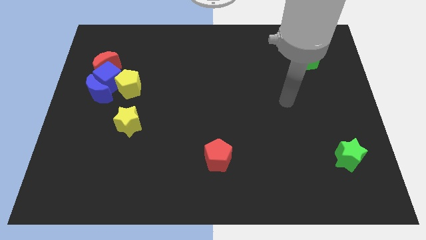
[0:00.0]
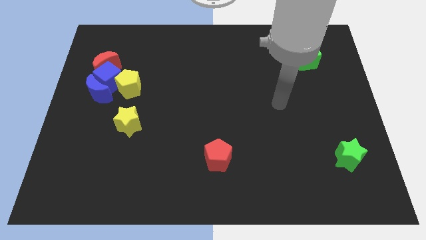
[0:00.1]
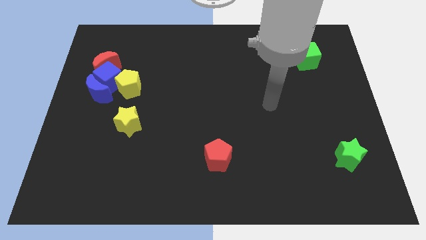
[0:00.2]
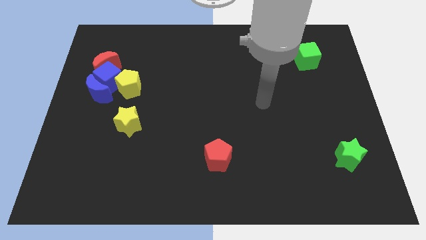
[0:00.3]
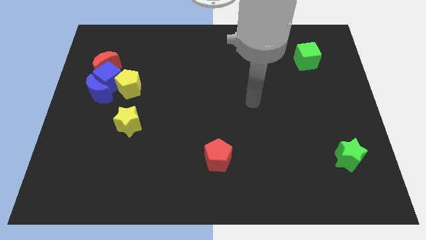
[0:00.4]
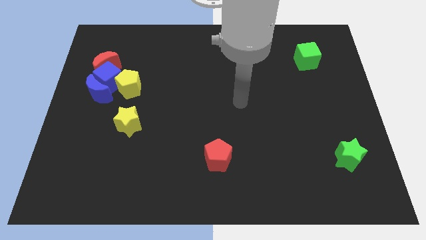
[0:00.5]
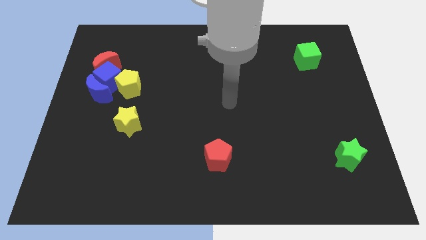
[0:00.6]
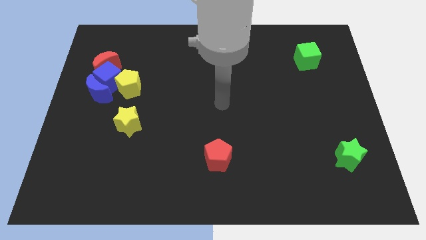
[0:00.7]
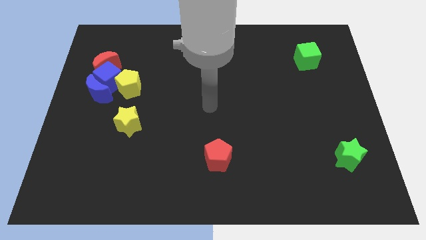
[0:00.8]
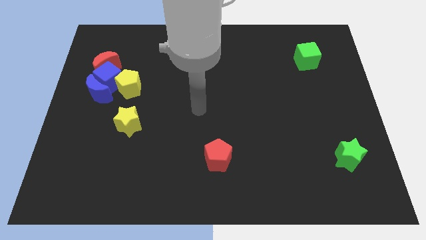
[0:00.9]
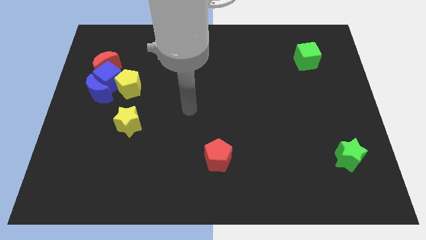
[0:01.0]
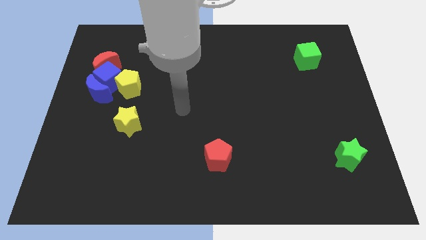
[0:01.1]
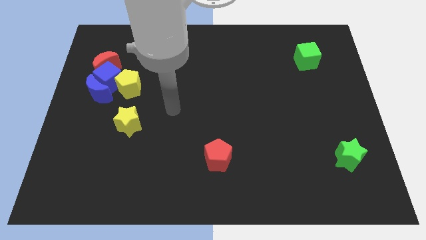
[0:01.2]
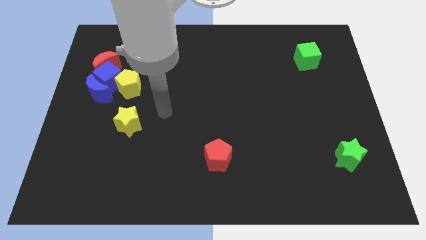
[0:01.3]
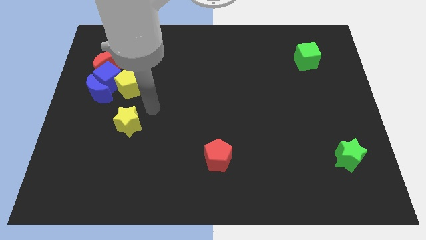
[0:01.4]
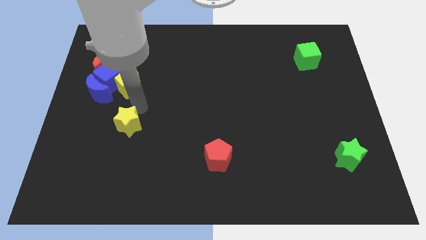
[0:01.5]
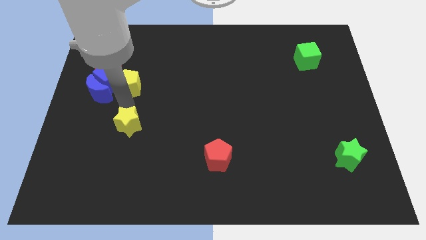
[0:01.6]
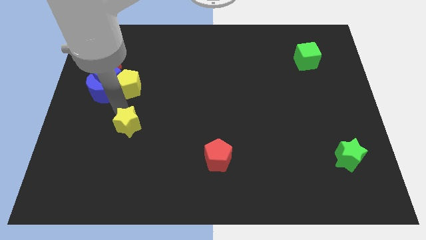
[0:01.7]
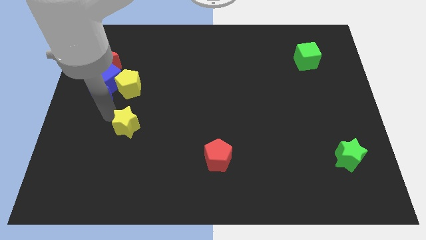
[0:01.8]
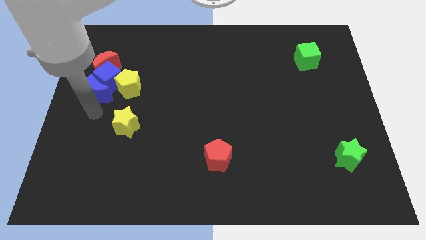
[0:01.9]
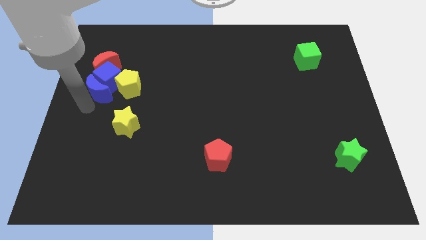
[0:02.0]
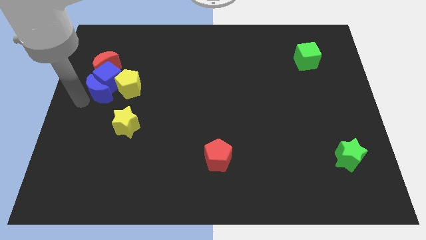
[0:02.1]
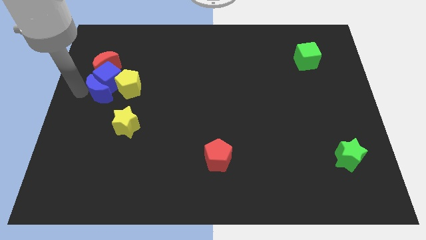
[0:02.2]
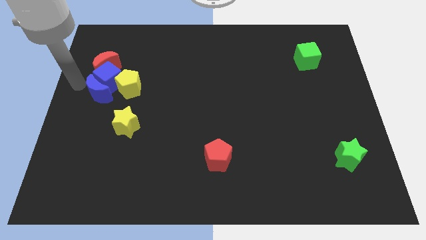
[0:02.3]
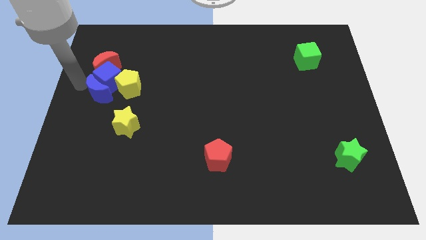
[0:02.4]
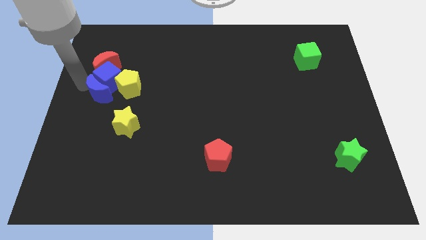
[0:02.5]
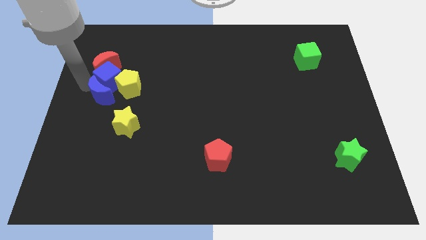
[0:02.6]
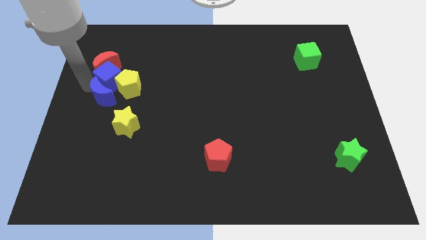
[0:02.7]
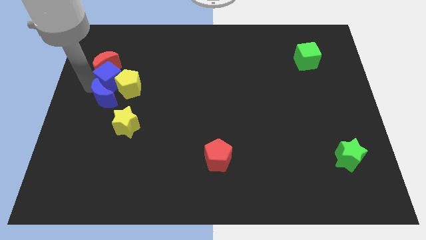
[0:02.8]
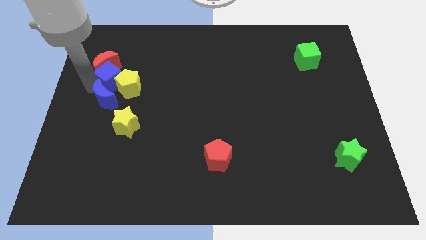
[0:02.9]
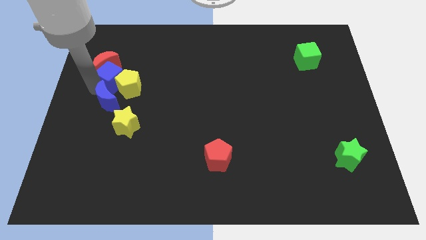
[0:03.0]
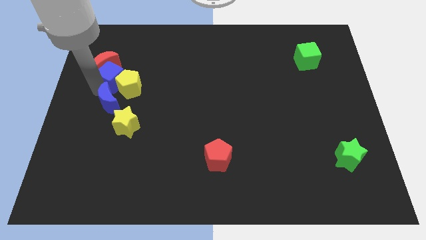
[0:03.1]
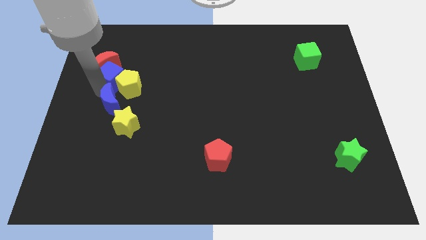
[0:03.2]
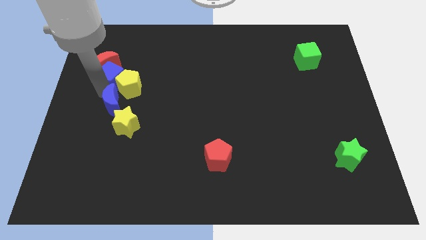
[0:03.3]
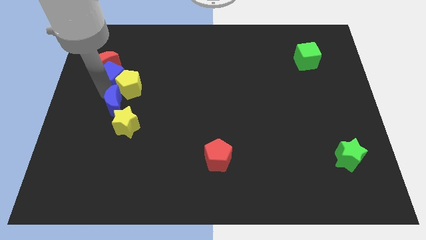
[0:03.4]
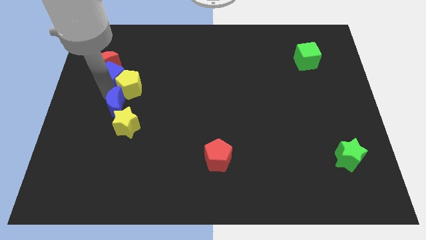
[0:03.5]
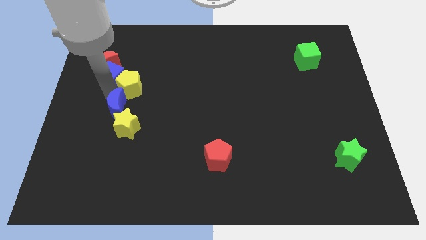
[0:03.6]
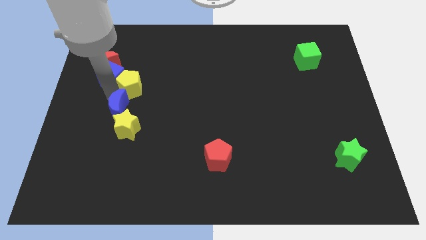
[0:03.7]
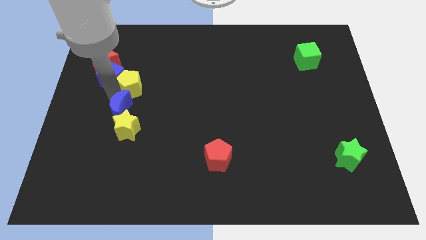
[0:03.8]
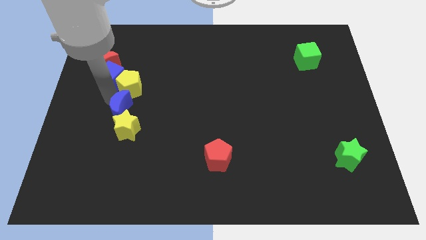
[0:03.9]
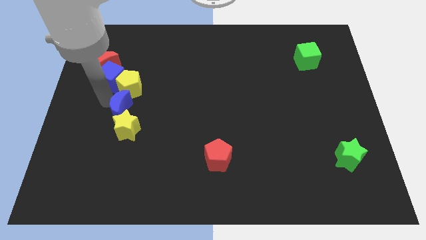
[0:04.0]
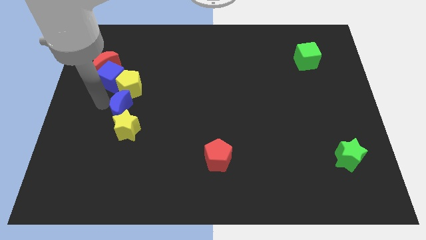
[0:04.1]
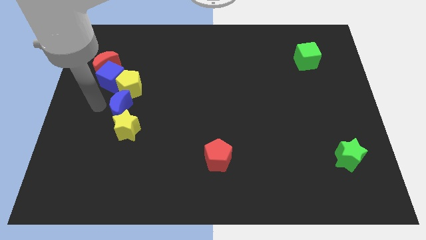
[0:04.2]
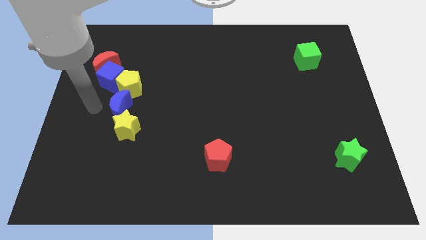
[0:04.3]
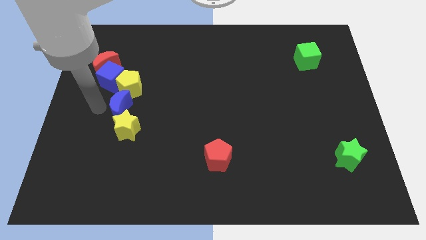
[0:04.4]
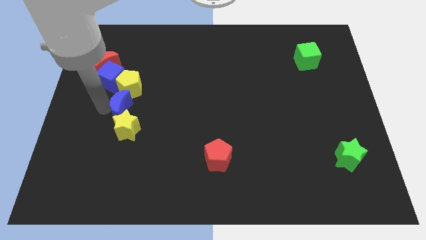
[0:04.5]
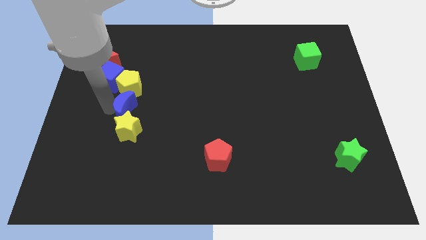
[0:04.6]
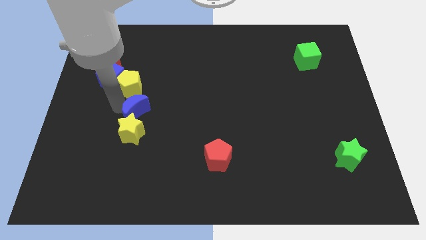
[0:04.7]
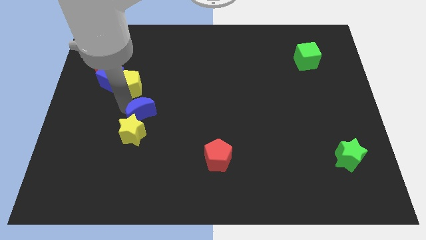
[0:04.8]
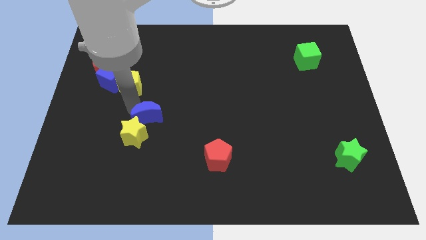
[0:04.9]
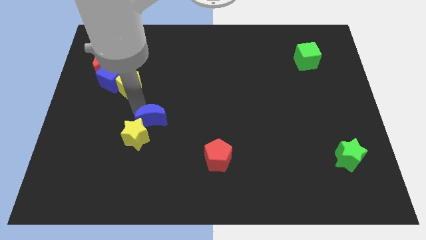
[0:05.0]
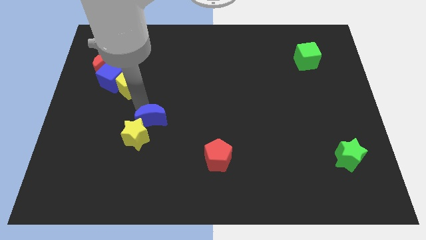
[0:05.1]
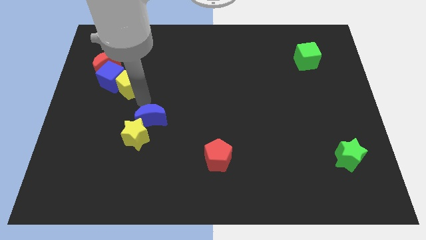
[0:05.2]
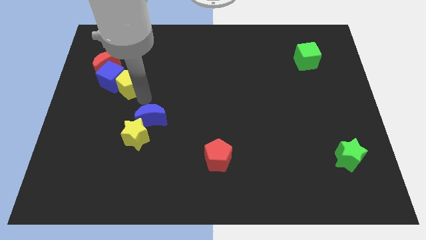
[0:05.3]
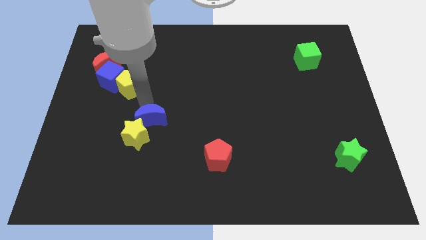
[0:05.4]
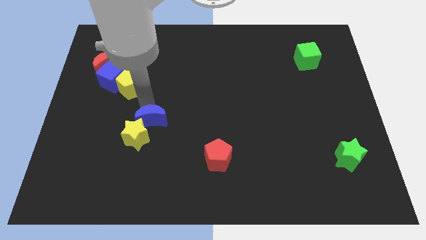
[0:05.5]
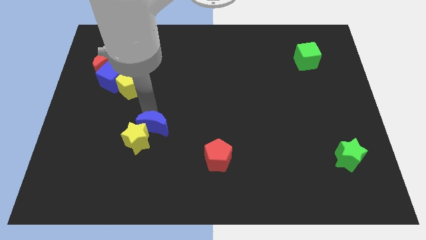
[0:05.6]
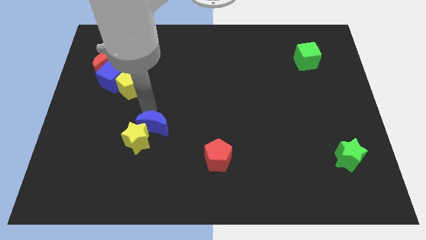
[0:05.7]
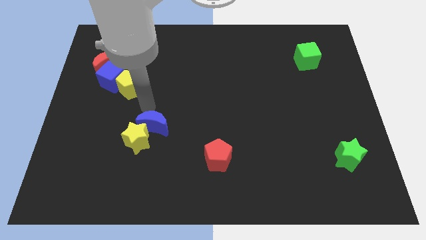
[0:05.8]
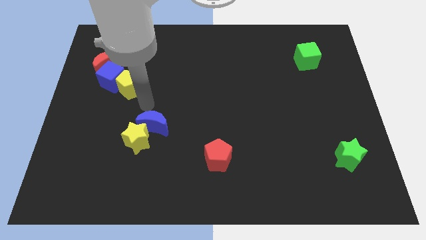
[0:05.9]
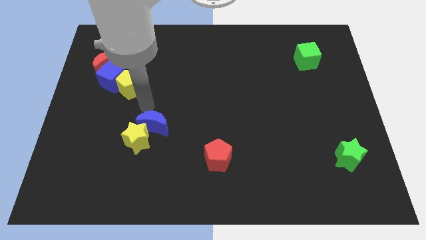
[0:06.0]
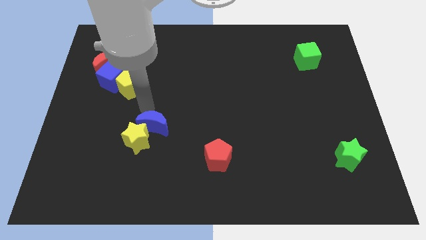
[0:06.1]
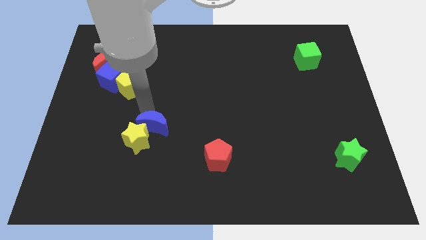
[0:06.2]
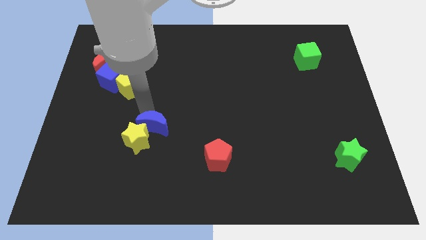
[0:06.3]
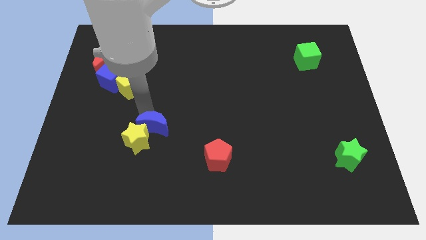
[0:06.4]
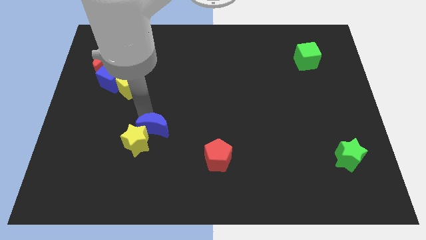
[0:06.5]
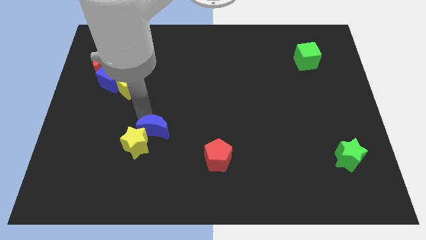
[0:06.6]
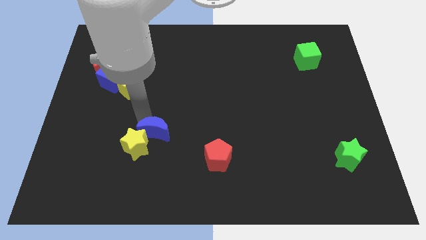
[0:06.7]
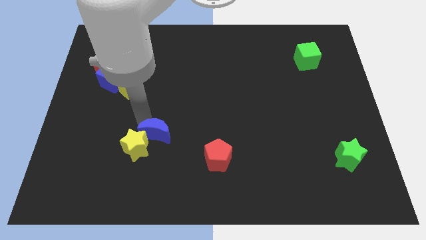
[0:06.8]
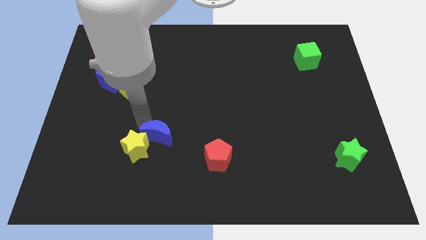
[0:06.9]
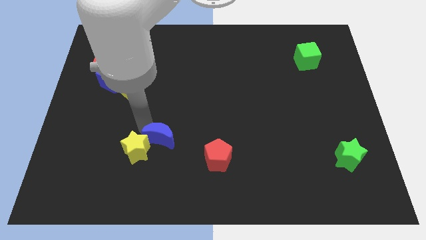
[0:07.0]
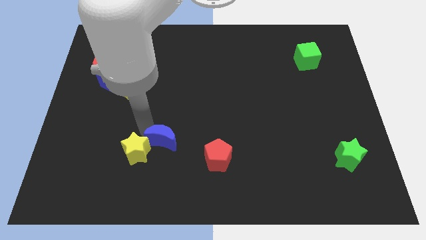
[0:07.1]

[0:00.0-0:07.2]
slide the blue moon to the left of the red pentagon

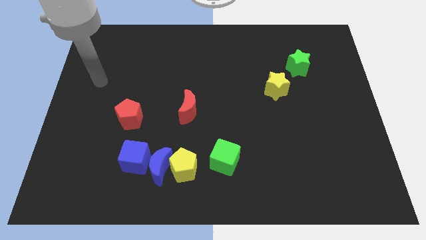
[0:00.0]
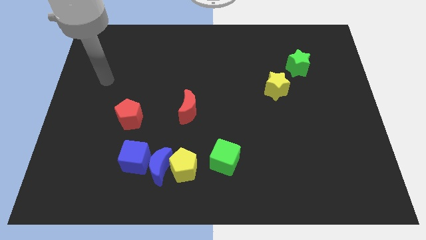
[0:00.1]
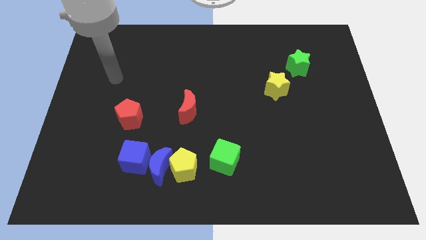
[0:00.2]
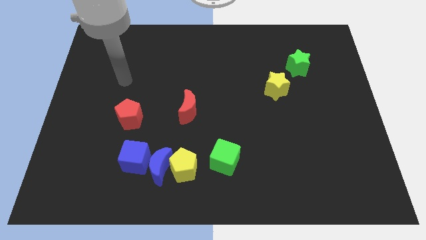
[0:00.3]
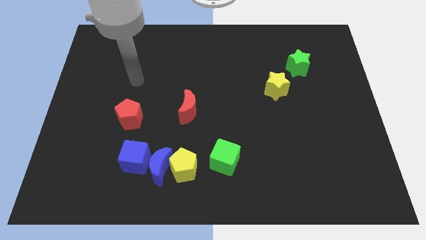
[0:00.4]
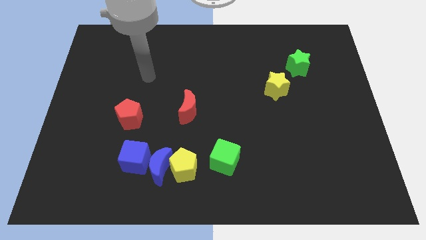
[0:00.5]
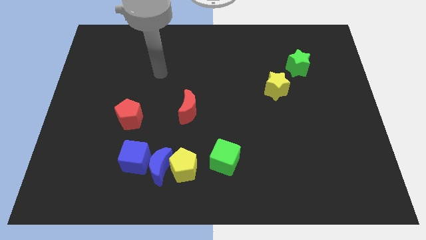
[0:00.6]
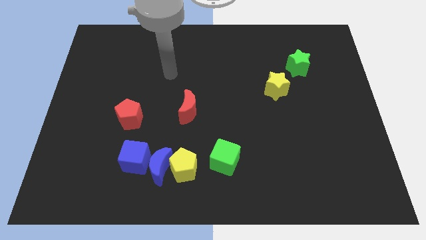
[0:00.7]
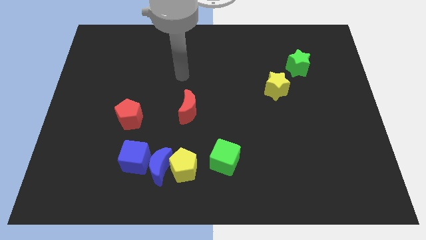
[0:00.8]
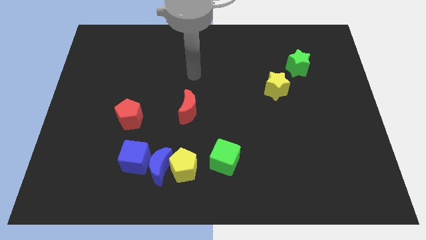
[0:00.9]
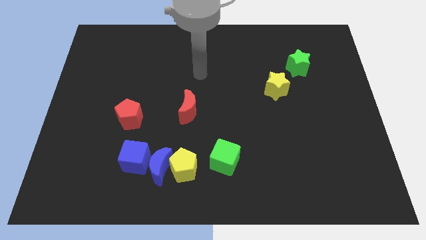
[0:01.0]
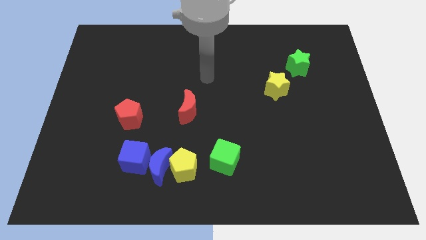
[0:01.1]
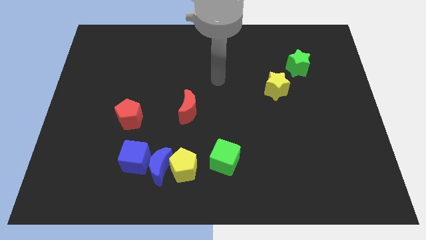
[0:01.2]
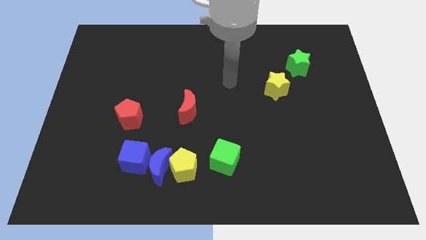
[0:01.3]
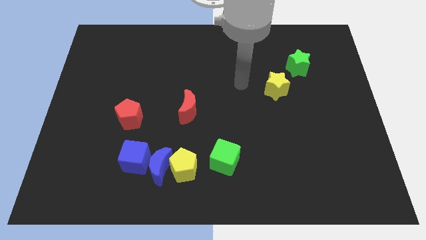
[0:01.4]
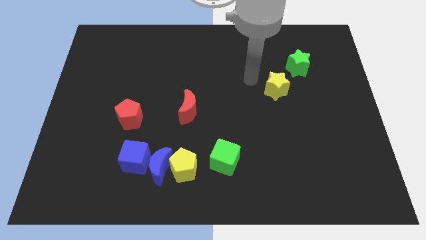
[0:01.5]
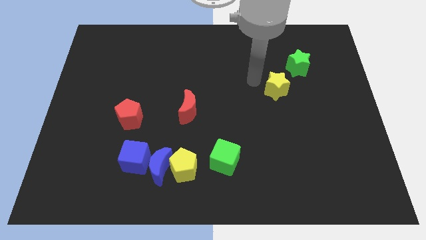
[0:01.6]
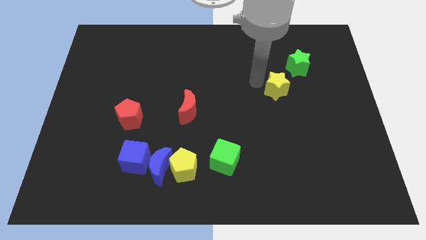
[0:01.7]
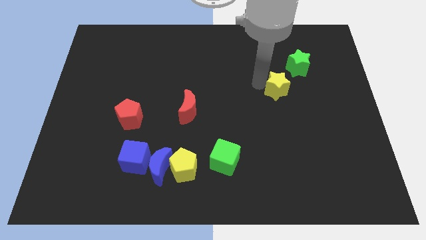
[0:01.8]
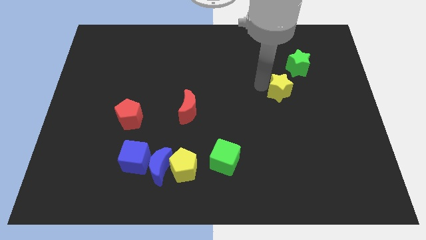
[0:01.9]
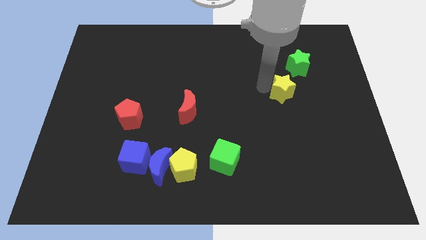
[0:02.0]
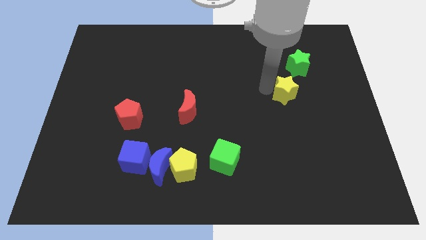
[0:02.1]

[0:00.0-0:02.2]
slide the yellow star to the bottom side of the green star
